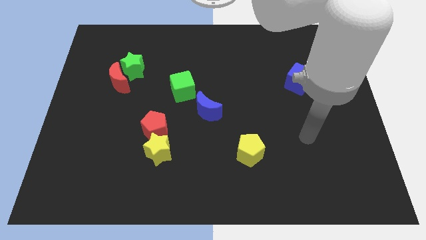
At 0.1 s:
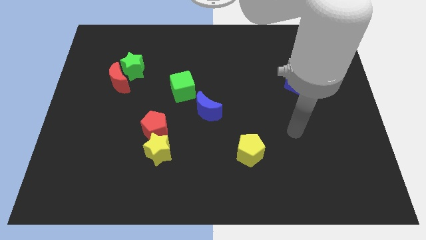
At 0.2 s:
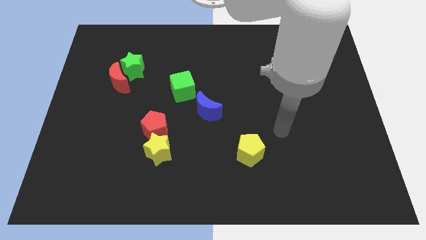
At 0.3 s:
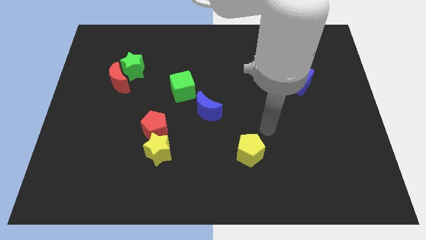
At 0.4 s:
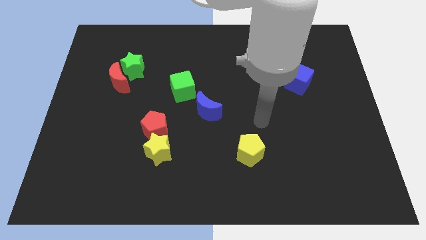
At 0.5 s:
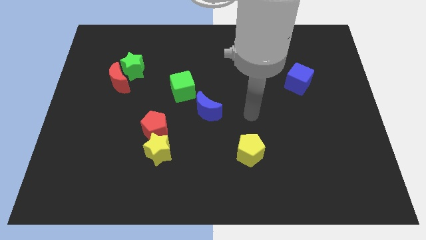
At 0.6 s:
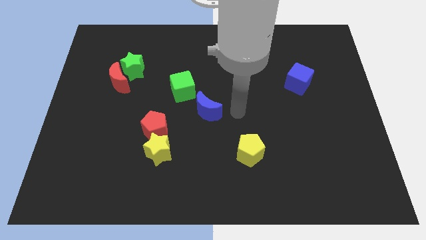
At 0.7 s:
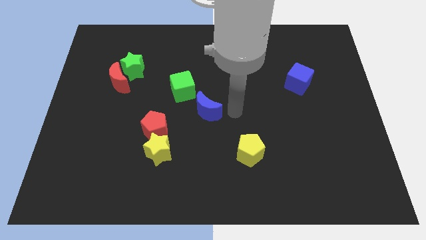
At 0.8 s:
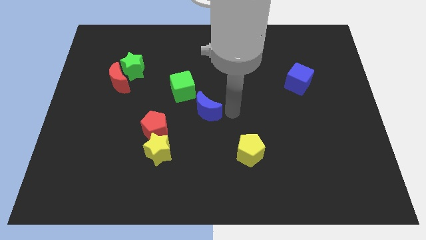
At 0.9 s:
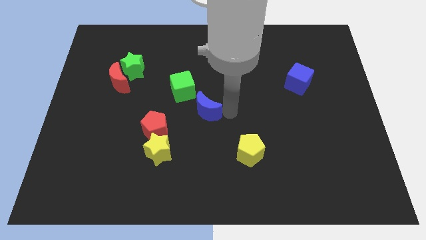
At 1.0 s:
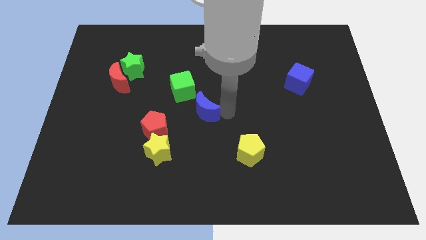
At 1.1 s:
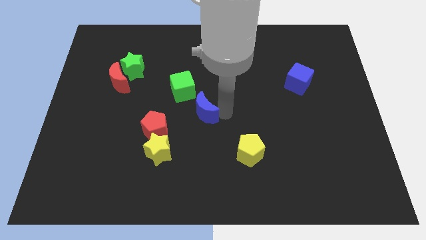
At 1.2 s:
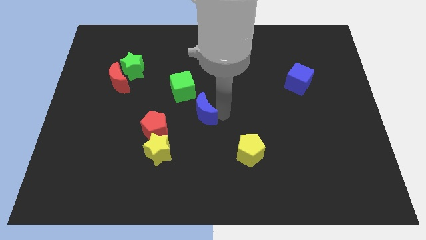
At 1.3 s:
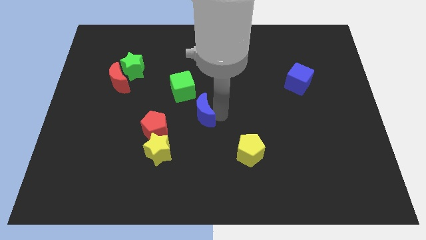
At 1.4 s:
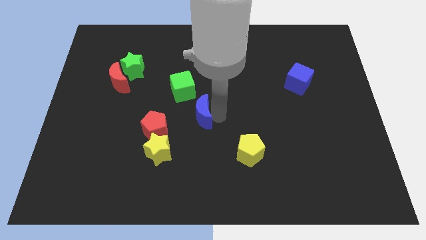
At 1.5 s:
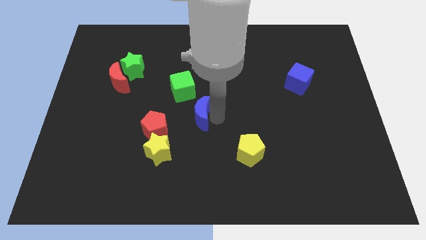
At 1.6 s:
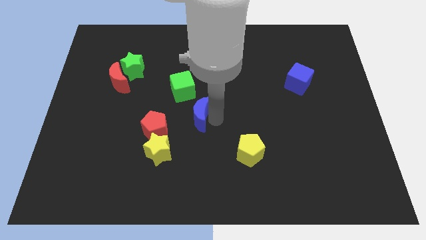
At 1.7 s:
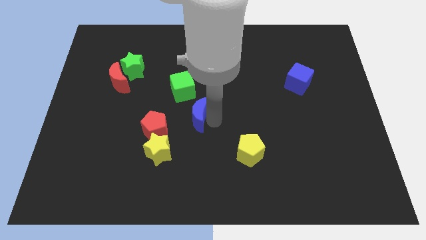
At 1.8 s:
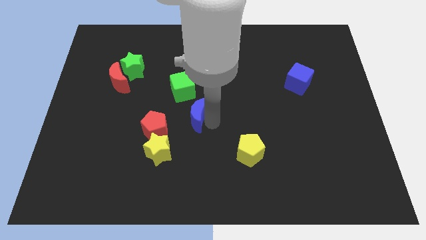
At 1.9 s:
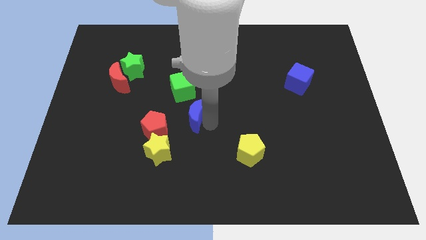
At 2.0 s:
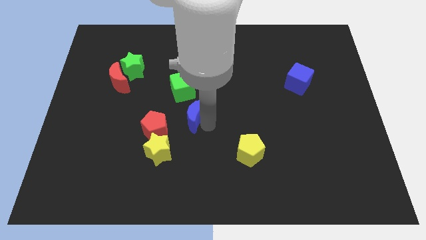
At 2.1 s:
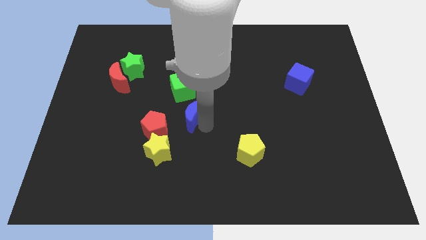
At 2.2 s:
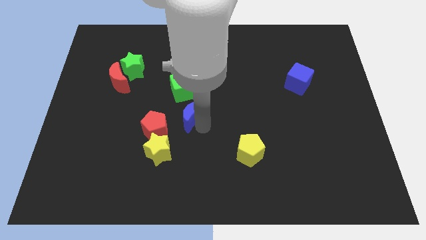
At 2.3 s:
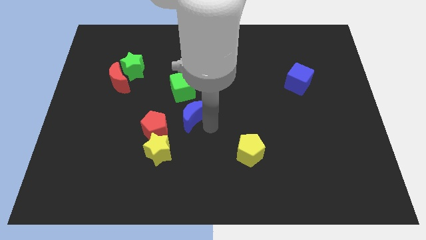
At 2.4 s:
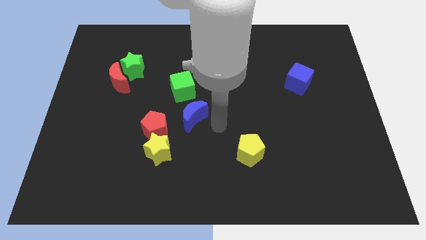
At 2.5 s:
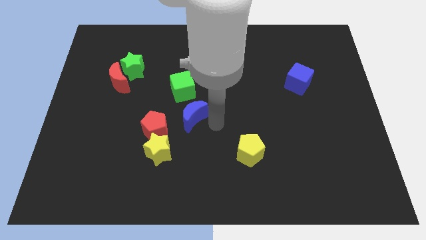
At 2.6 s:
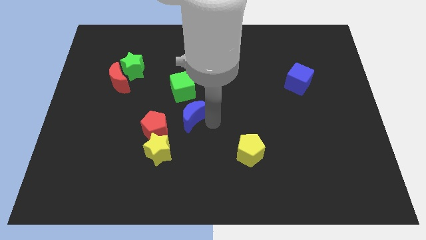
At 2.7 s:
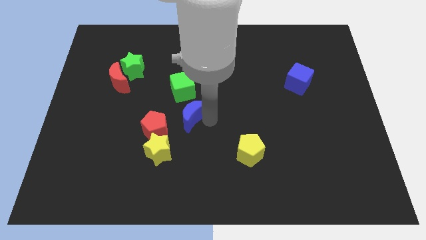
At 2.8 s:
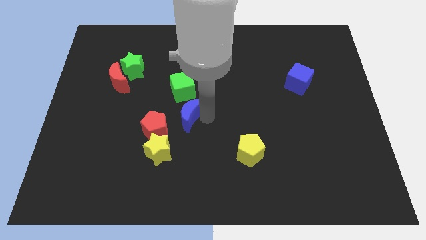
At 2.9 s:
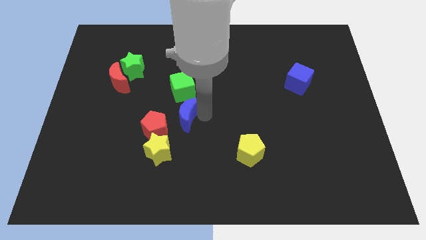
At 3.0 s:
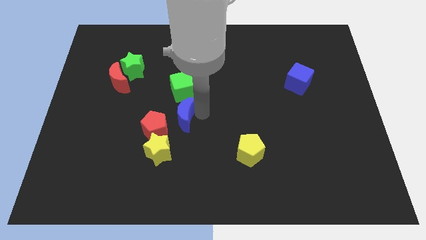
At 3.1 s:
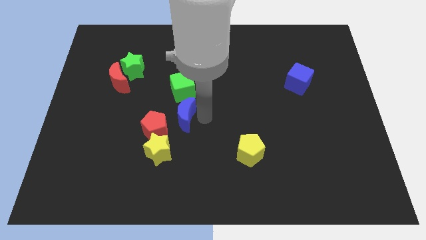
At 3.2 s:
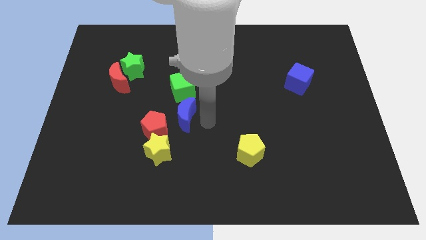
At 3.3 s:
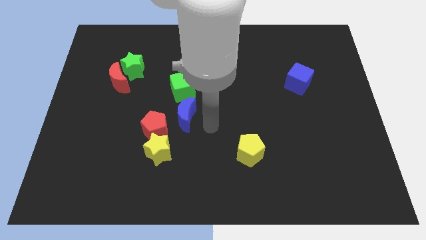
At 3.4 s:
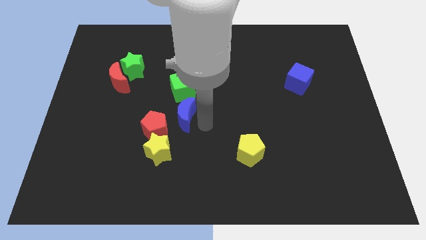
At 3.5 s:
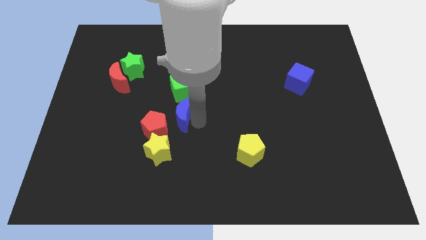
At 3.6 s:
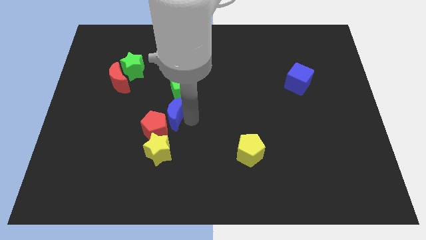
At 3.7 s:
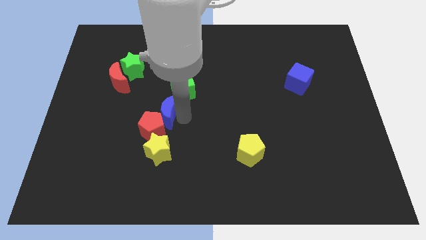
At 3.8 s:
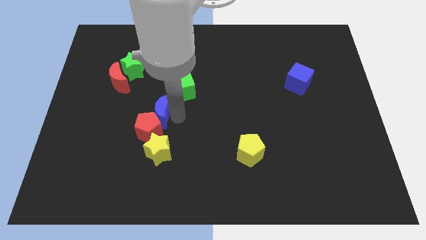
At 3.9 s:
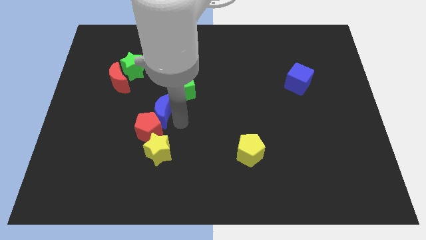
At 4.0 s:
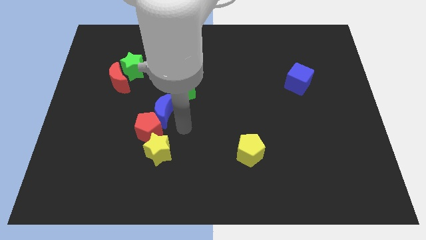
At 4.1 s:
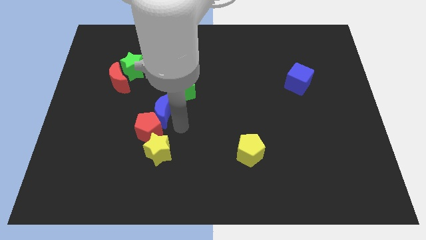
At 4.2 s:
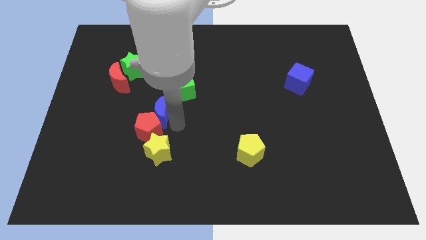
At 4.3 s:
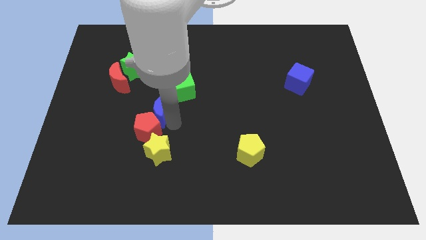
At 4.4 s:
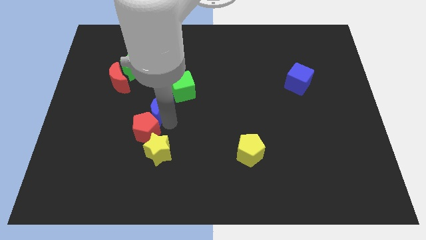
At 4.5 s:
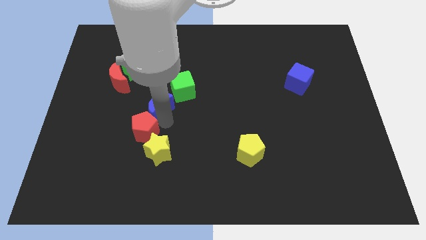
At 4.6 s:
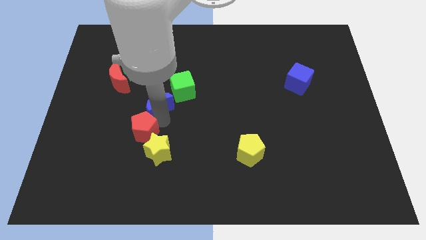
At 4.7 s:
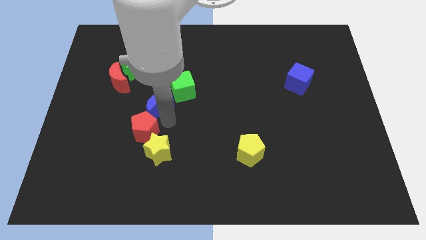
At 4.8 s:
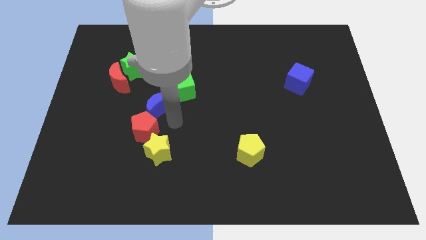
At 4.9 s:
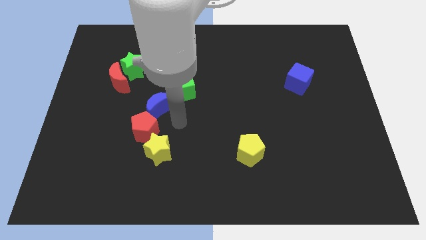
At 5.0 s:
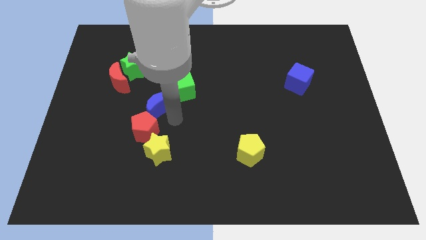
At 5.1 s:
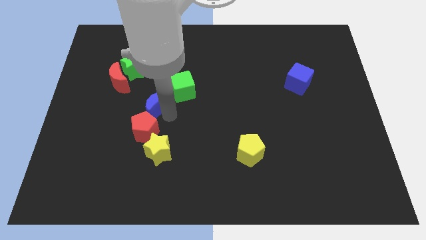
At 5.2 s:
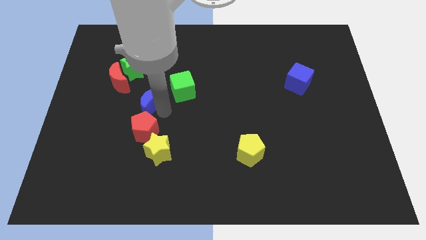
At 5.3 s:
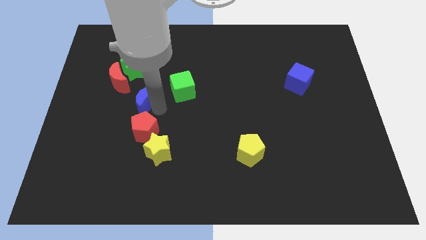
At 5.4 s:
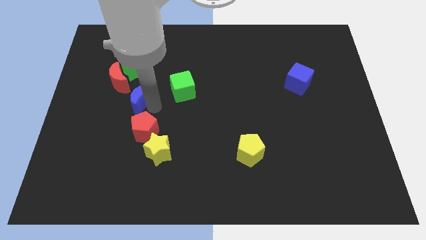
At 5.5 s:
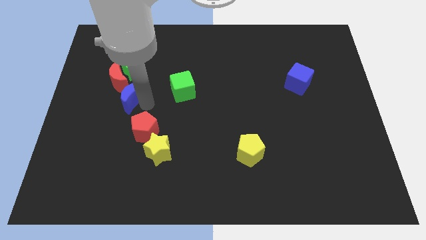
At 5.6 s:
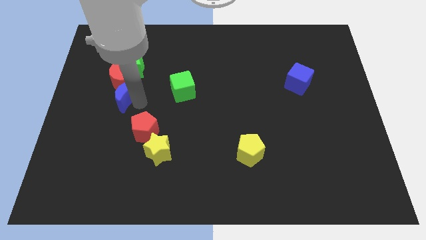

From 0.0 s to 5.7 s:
put the blue moon next to the red moon
